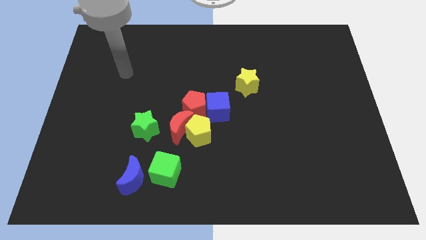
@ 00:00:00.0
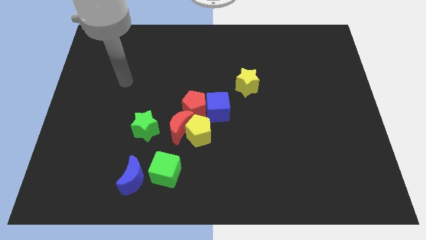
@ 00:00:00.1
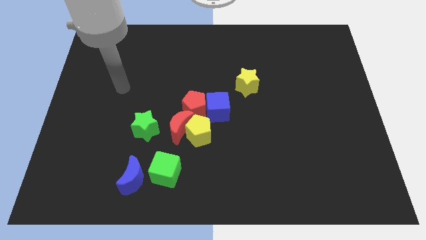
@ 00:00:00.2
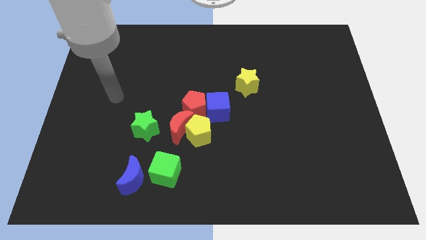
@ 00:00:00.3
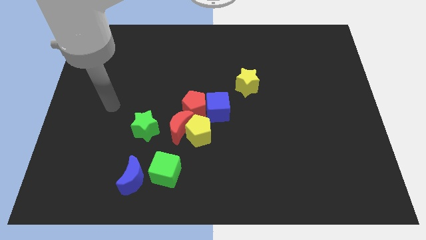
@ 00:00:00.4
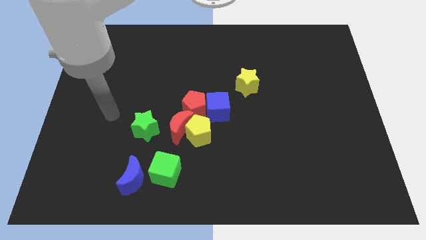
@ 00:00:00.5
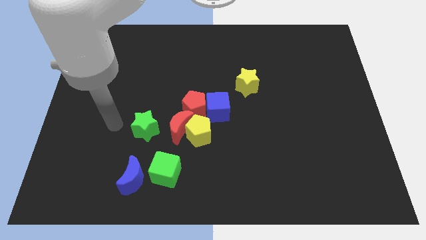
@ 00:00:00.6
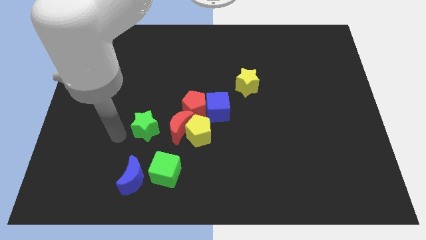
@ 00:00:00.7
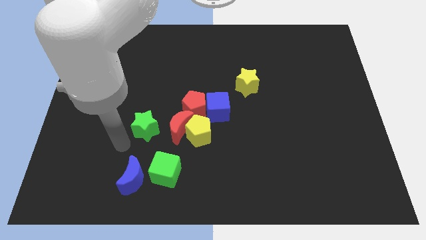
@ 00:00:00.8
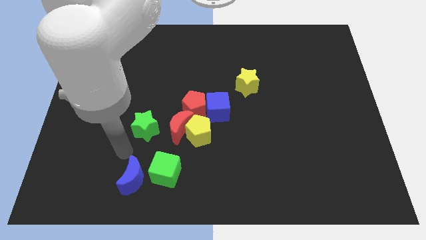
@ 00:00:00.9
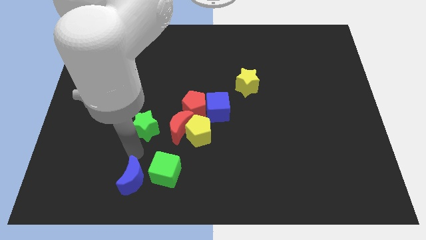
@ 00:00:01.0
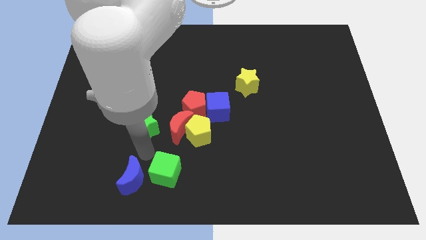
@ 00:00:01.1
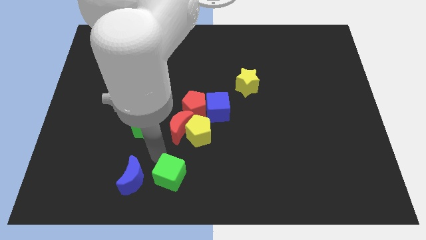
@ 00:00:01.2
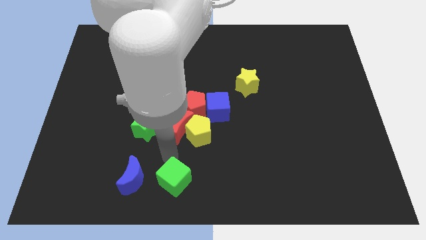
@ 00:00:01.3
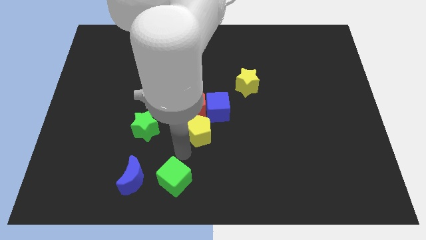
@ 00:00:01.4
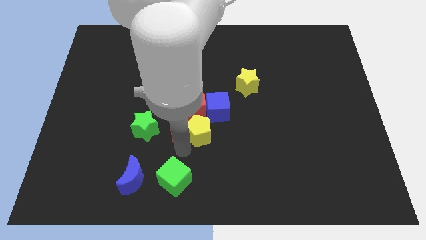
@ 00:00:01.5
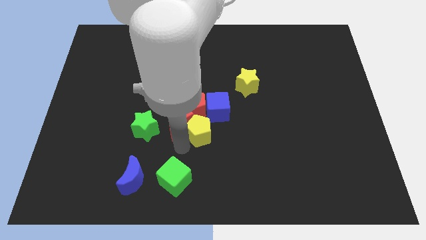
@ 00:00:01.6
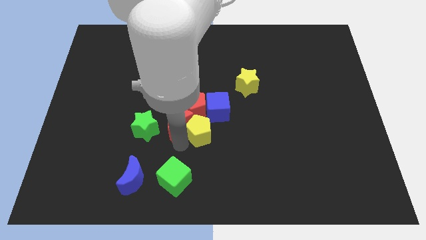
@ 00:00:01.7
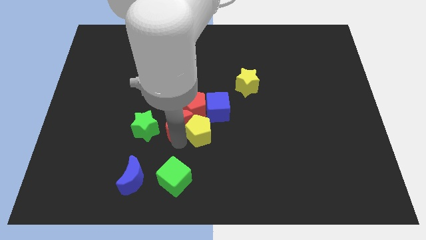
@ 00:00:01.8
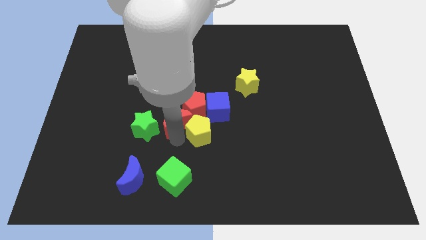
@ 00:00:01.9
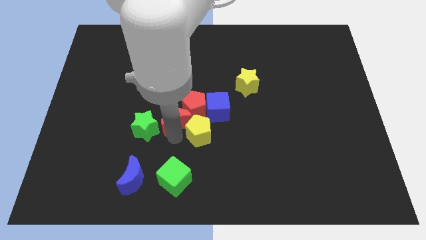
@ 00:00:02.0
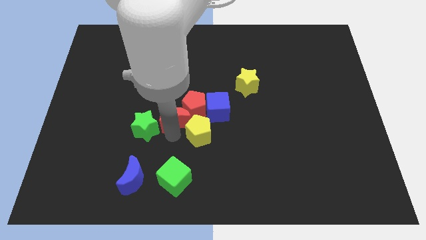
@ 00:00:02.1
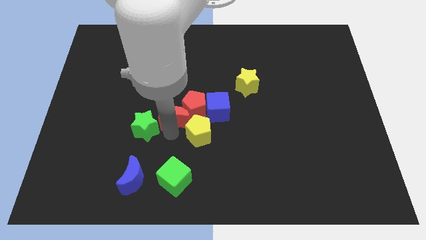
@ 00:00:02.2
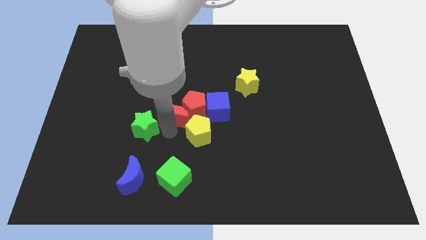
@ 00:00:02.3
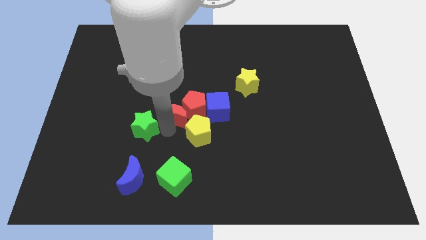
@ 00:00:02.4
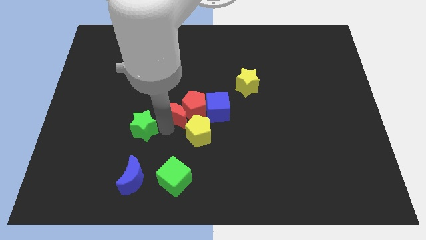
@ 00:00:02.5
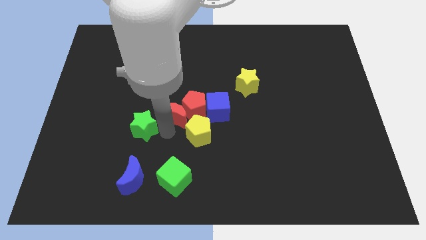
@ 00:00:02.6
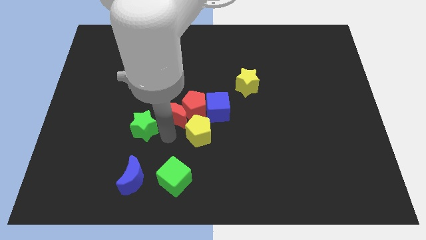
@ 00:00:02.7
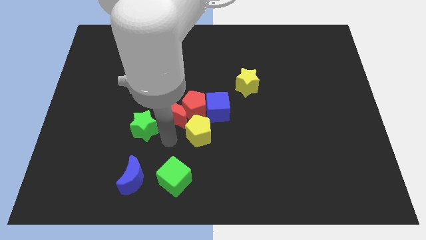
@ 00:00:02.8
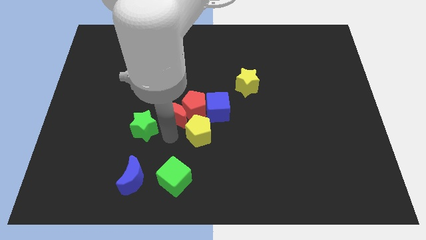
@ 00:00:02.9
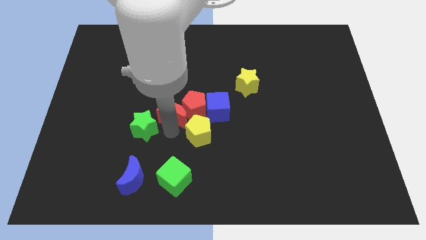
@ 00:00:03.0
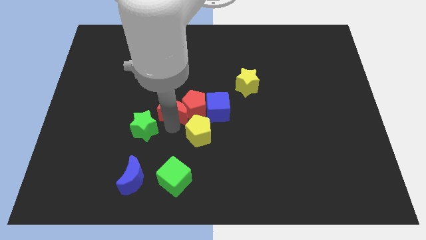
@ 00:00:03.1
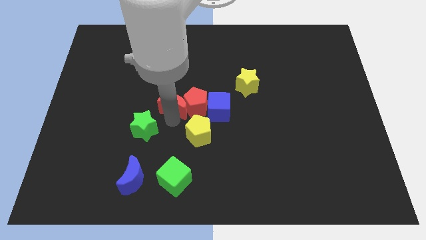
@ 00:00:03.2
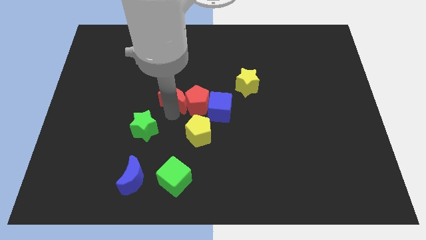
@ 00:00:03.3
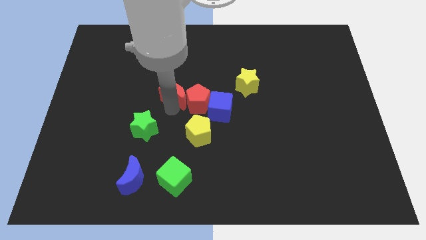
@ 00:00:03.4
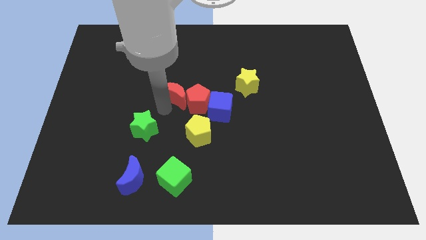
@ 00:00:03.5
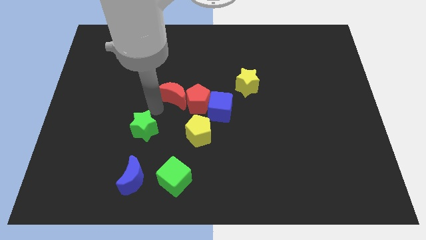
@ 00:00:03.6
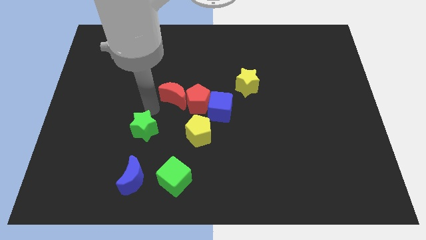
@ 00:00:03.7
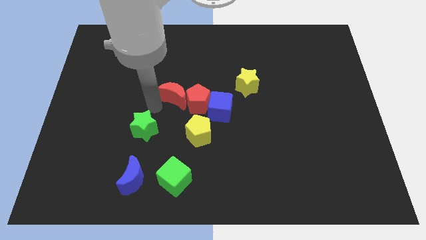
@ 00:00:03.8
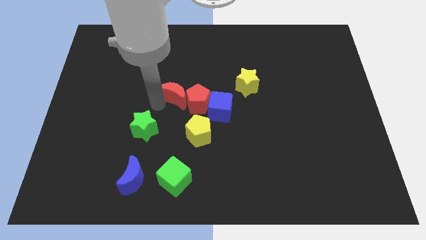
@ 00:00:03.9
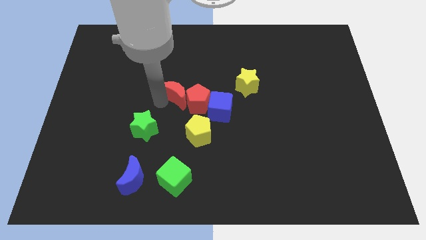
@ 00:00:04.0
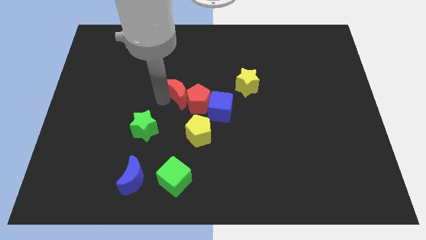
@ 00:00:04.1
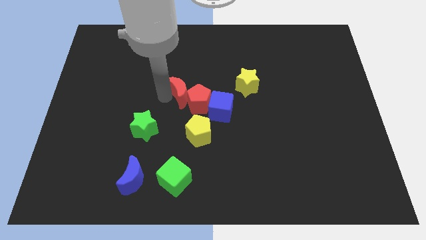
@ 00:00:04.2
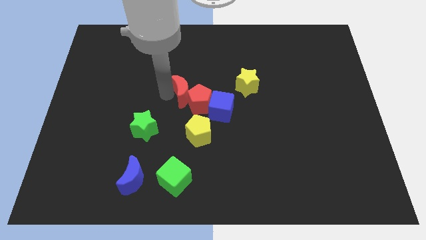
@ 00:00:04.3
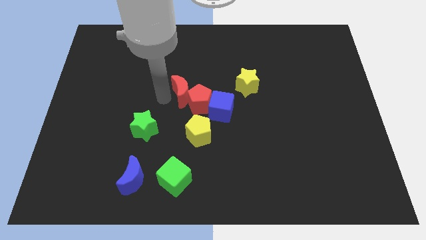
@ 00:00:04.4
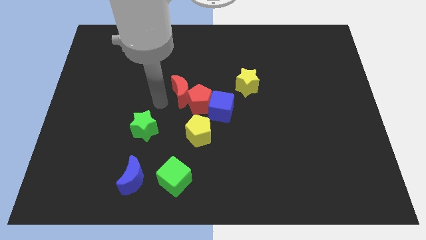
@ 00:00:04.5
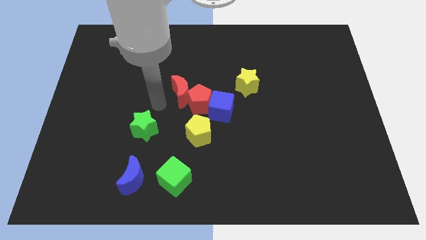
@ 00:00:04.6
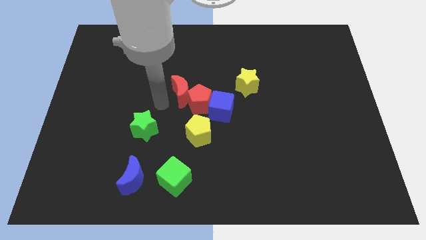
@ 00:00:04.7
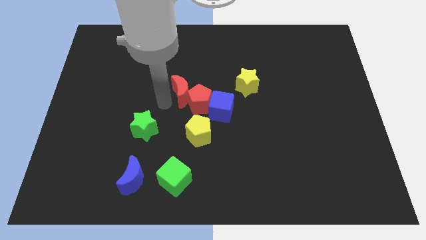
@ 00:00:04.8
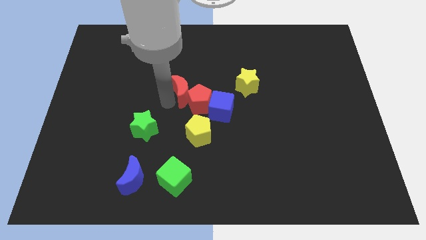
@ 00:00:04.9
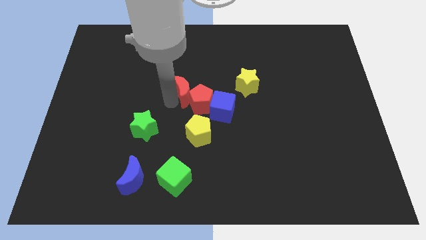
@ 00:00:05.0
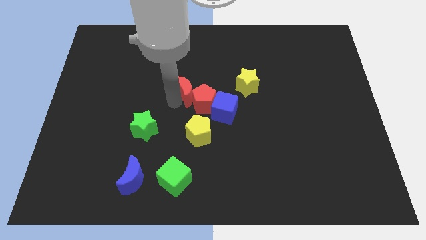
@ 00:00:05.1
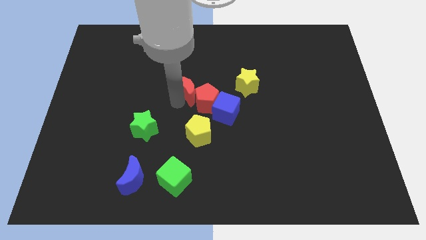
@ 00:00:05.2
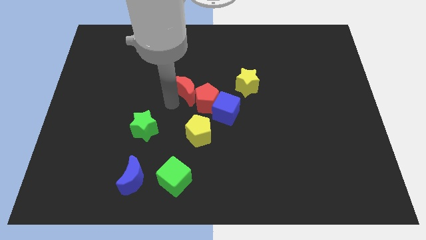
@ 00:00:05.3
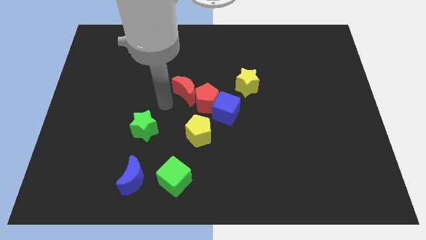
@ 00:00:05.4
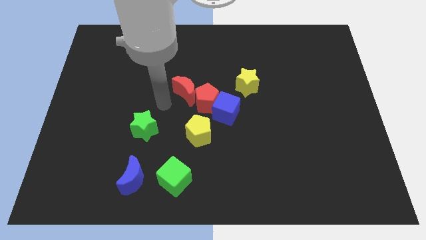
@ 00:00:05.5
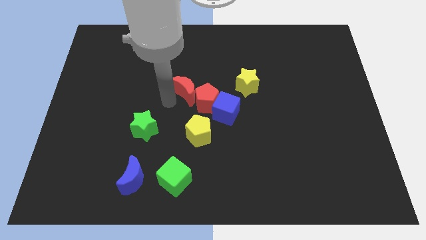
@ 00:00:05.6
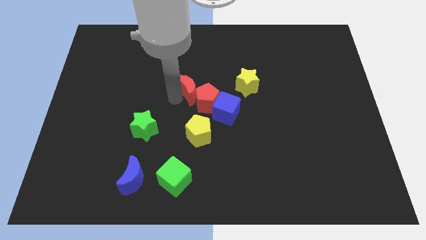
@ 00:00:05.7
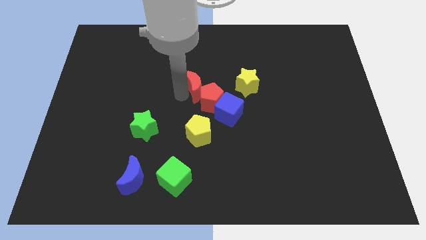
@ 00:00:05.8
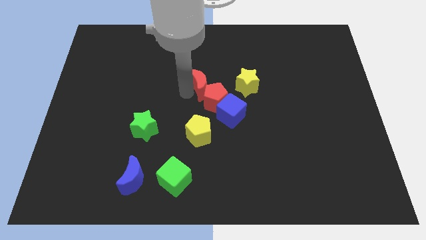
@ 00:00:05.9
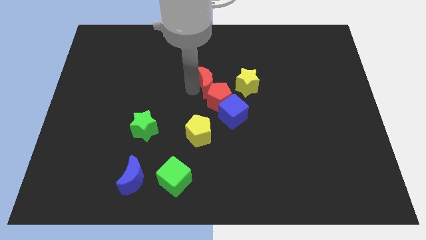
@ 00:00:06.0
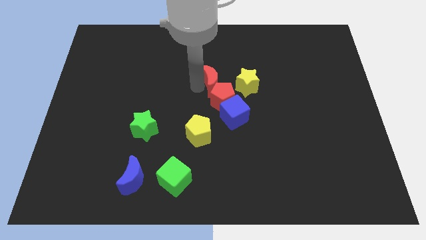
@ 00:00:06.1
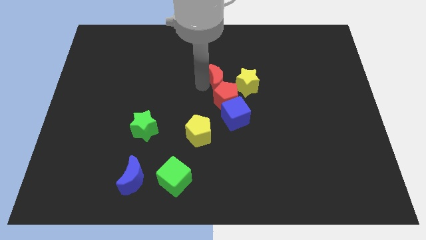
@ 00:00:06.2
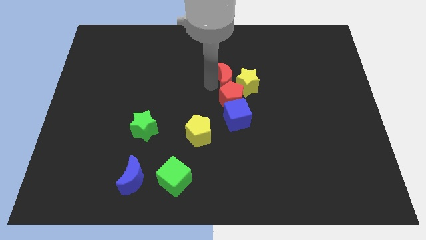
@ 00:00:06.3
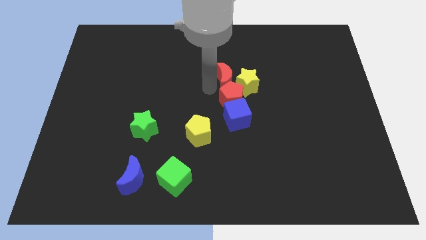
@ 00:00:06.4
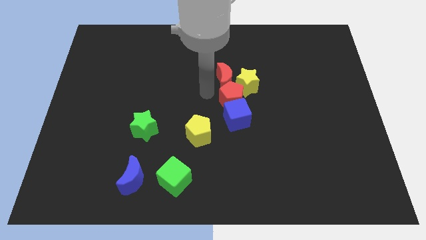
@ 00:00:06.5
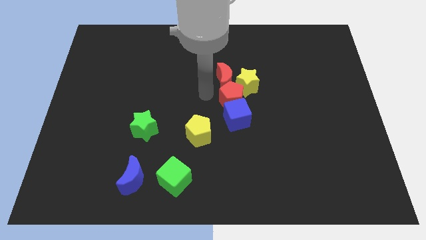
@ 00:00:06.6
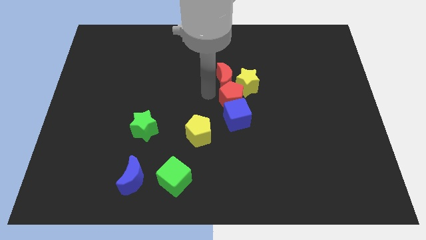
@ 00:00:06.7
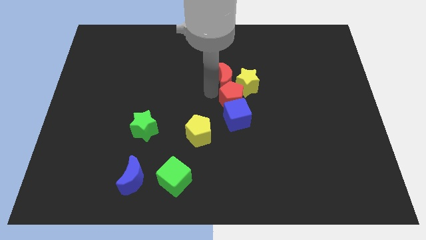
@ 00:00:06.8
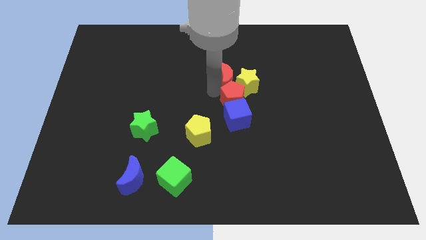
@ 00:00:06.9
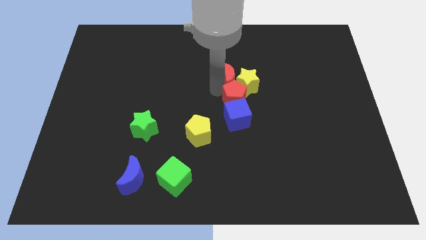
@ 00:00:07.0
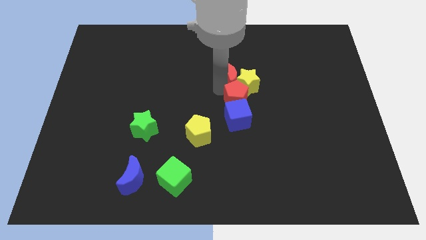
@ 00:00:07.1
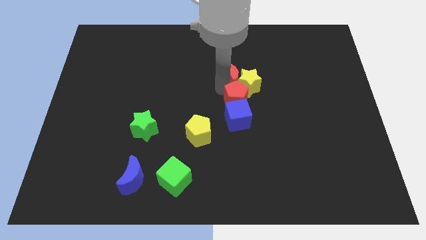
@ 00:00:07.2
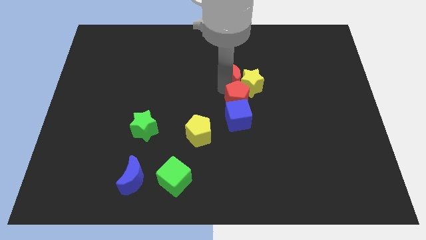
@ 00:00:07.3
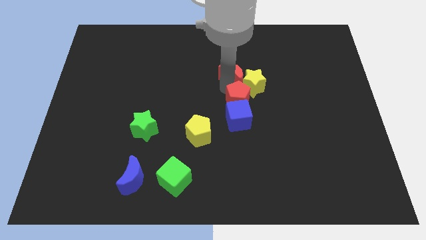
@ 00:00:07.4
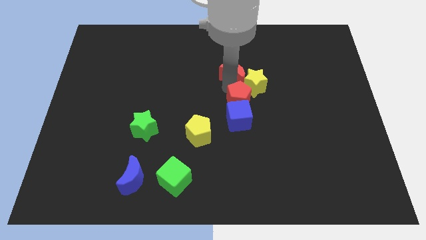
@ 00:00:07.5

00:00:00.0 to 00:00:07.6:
move the red moon upwards and right

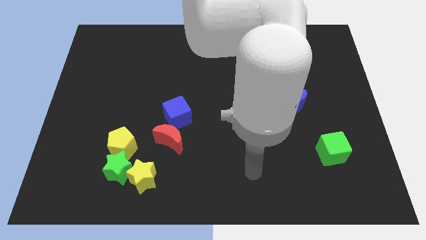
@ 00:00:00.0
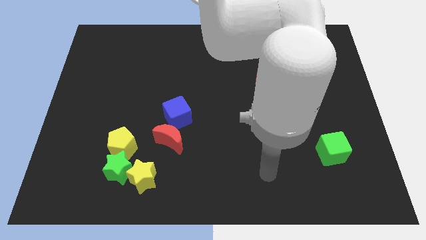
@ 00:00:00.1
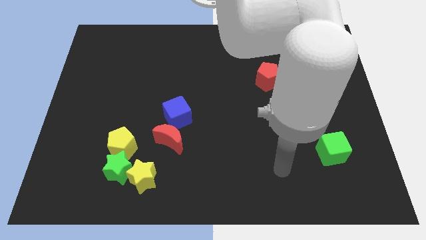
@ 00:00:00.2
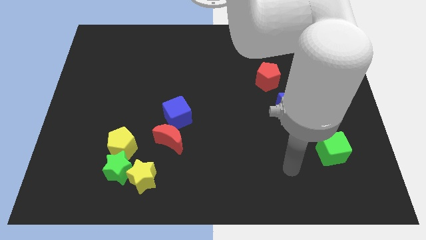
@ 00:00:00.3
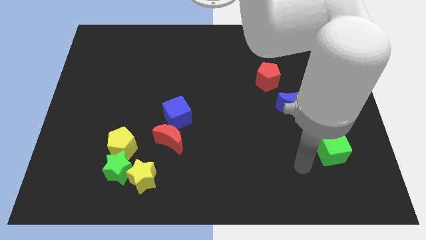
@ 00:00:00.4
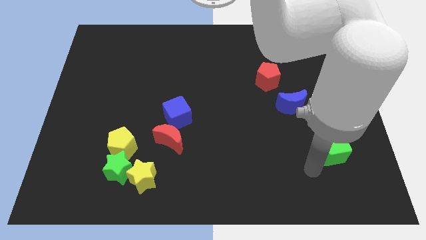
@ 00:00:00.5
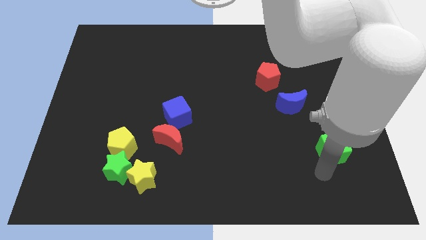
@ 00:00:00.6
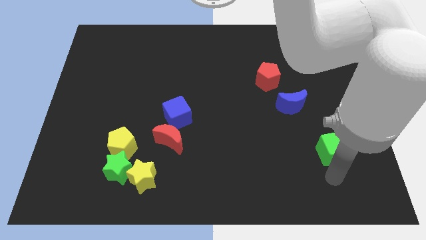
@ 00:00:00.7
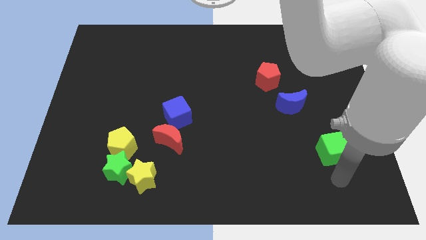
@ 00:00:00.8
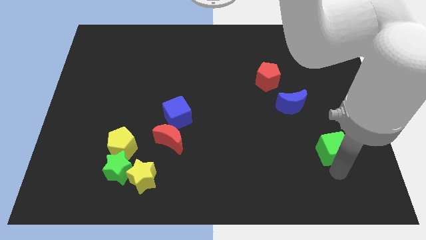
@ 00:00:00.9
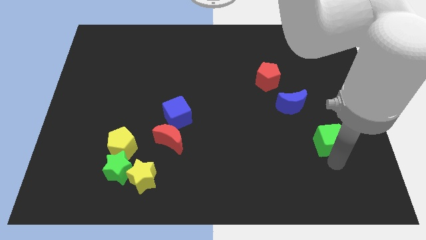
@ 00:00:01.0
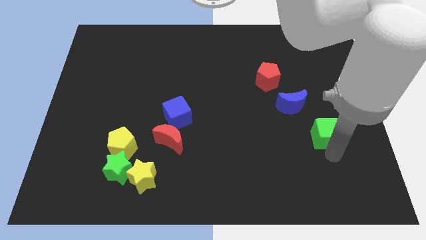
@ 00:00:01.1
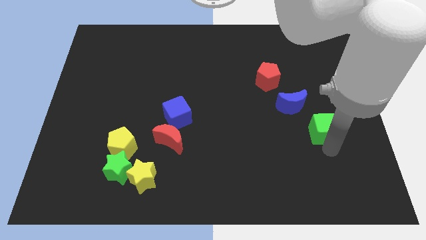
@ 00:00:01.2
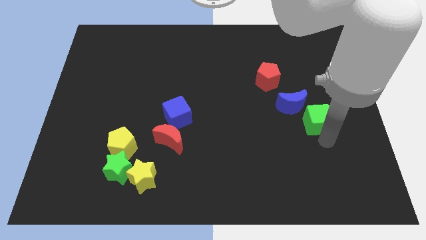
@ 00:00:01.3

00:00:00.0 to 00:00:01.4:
slightly push the green cube up
